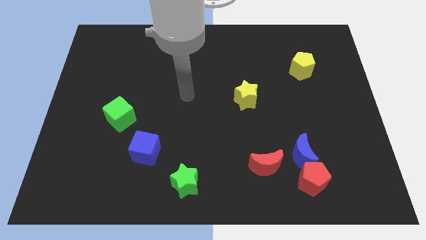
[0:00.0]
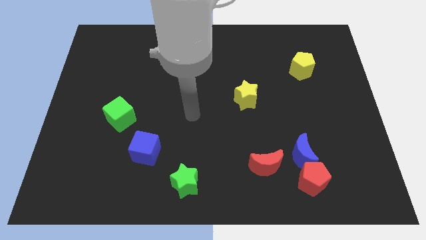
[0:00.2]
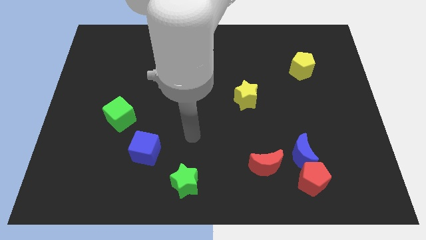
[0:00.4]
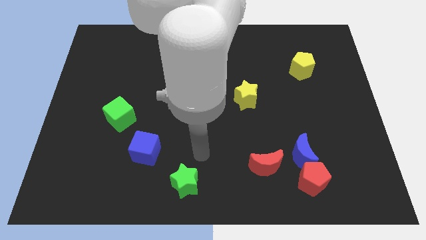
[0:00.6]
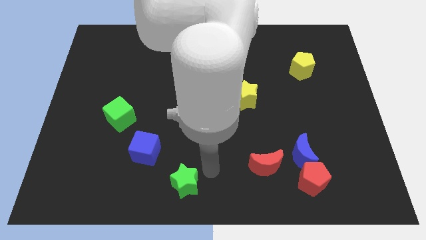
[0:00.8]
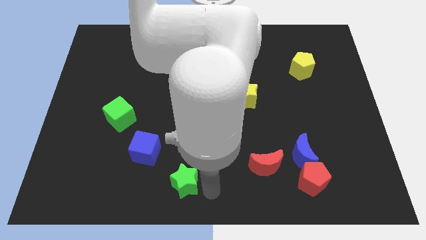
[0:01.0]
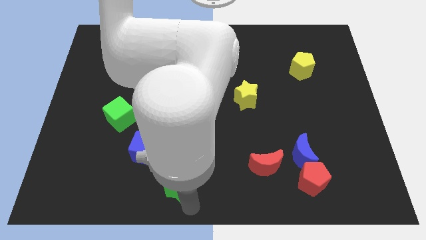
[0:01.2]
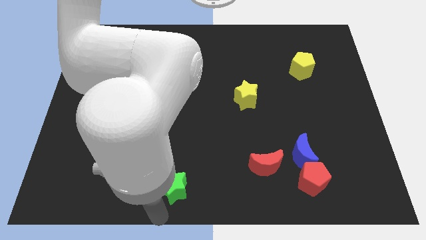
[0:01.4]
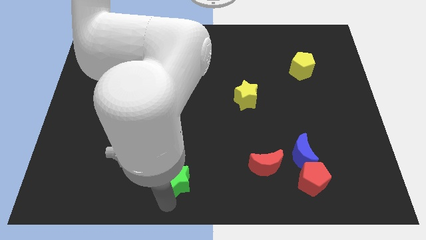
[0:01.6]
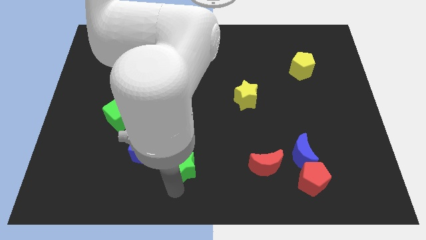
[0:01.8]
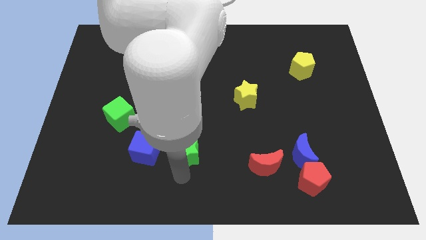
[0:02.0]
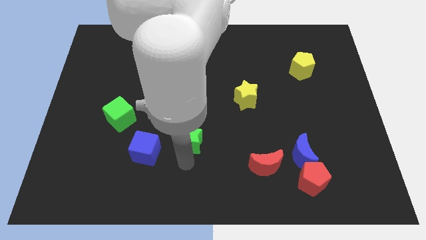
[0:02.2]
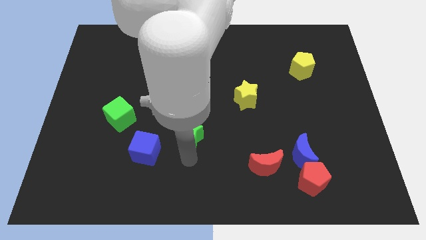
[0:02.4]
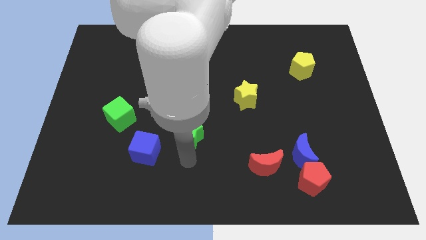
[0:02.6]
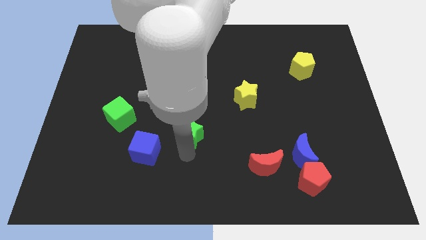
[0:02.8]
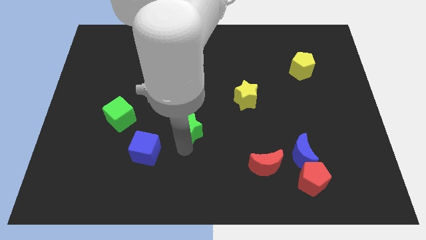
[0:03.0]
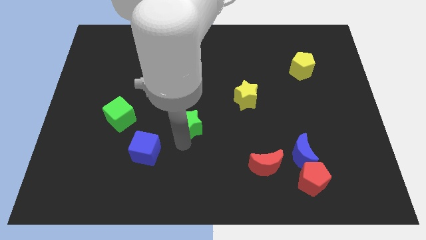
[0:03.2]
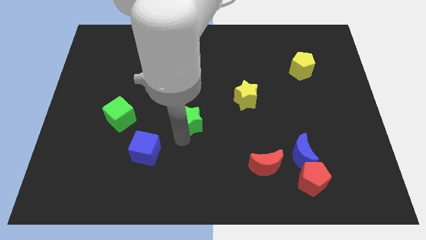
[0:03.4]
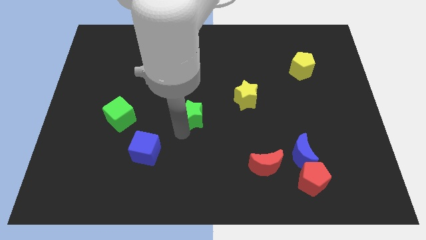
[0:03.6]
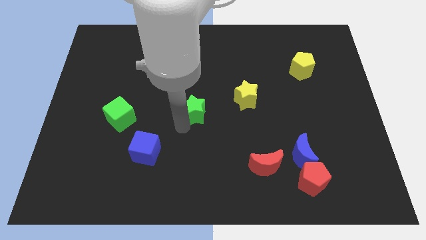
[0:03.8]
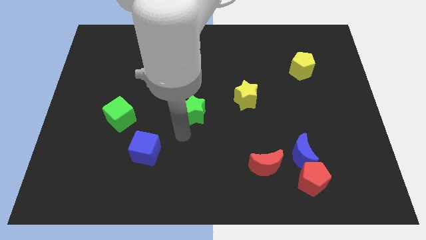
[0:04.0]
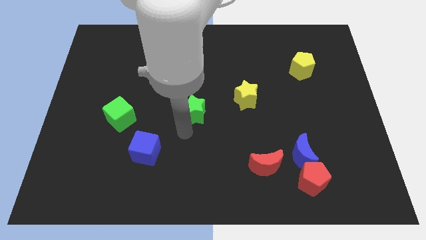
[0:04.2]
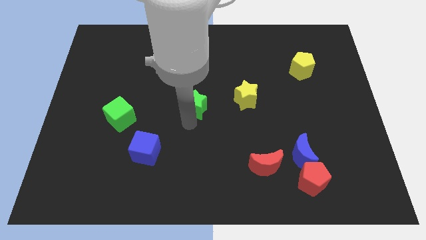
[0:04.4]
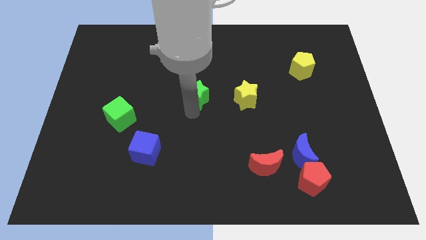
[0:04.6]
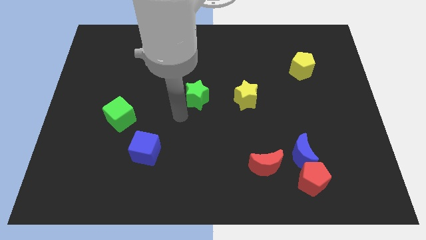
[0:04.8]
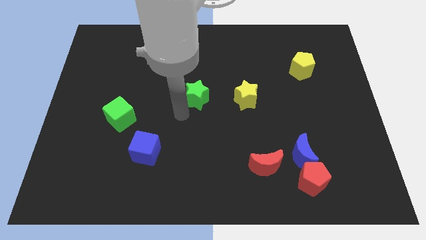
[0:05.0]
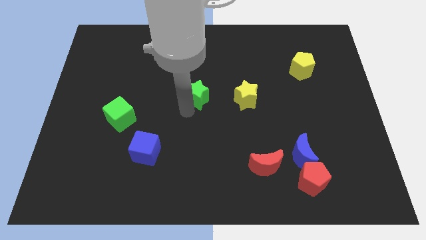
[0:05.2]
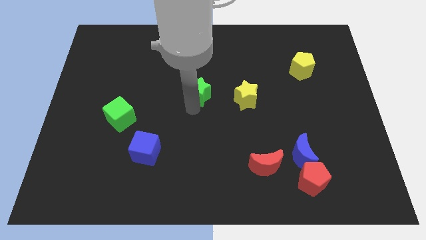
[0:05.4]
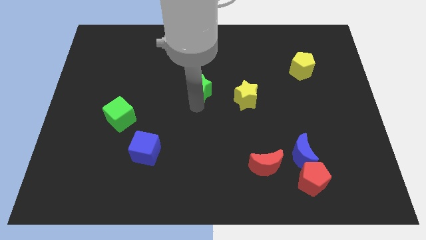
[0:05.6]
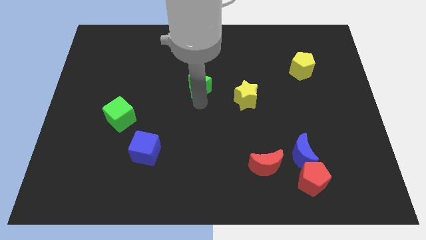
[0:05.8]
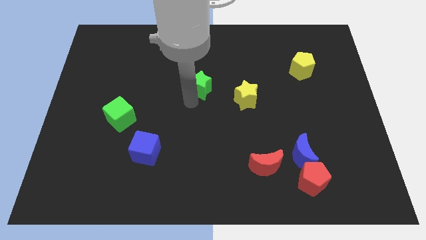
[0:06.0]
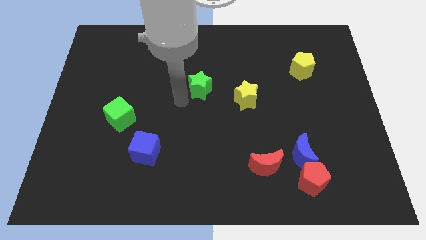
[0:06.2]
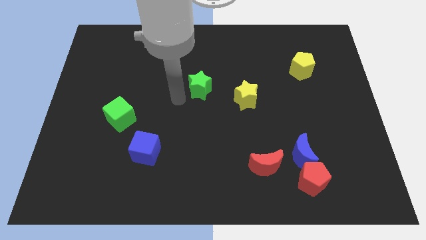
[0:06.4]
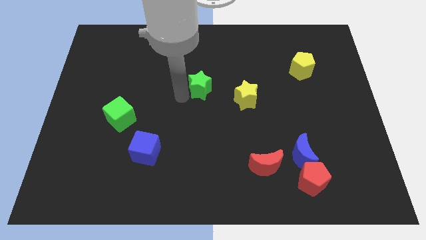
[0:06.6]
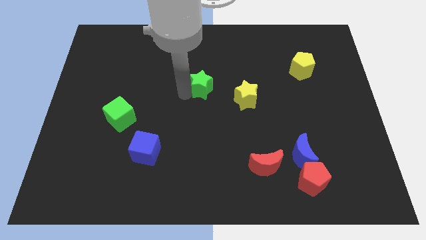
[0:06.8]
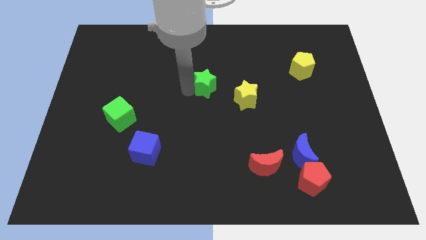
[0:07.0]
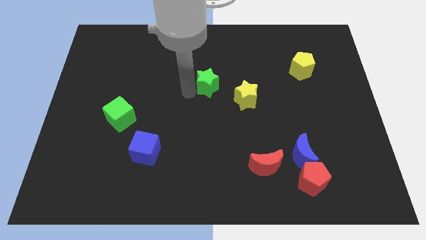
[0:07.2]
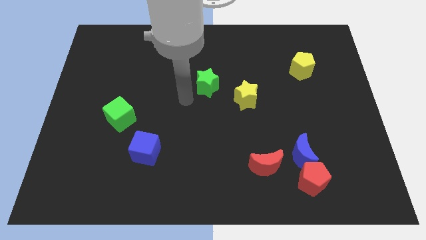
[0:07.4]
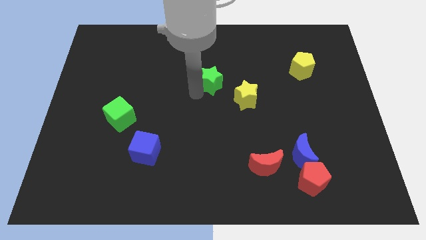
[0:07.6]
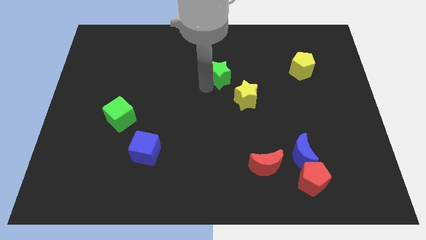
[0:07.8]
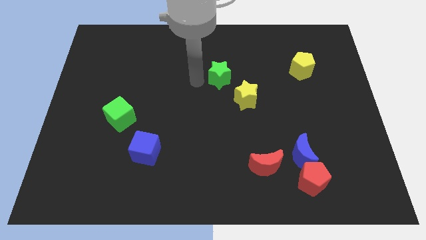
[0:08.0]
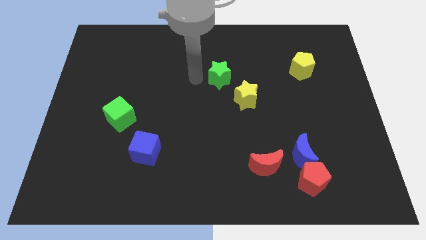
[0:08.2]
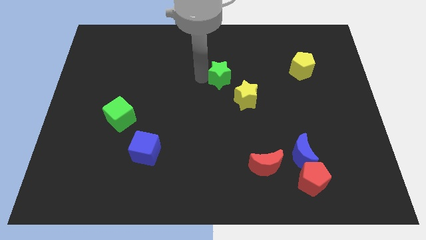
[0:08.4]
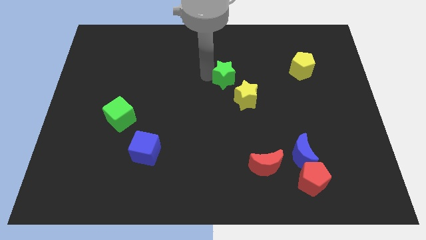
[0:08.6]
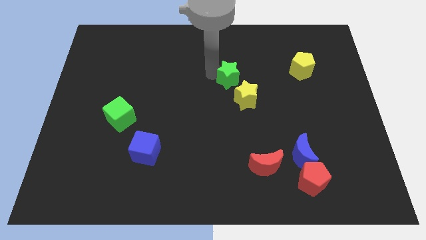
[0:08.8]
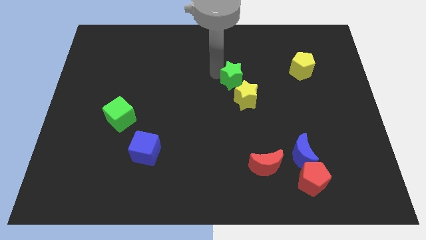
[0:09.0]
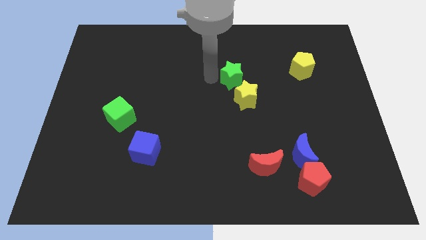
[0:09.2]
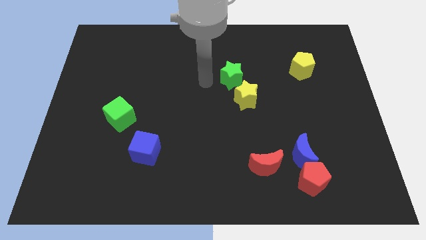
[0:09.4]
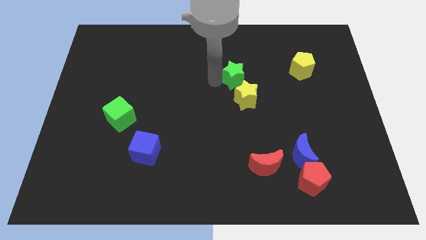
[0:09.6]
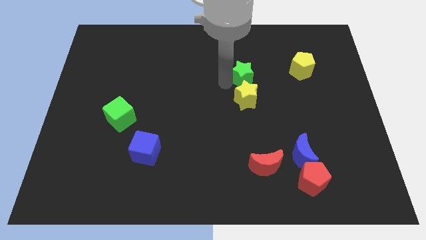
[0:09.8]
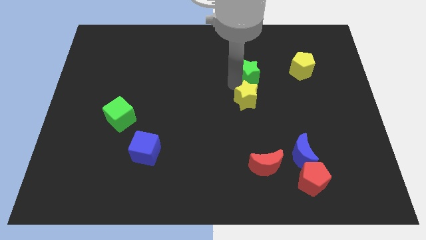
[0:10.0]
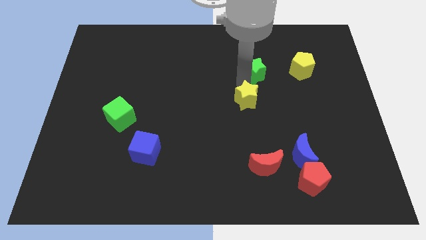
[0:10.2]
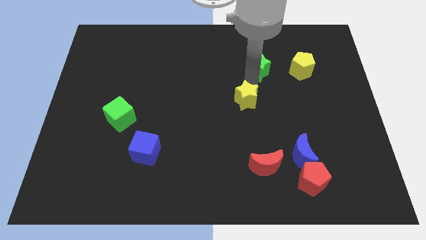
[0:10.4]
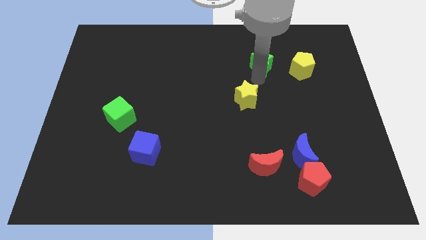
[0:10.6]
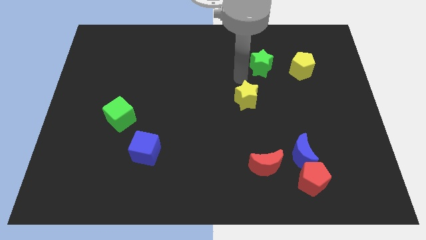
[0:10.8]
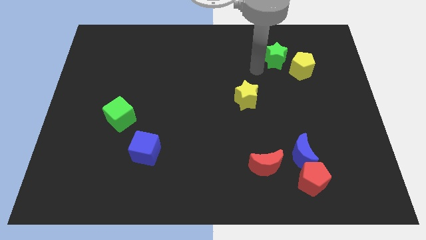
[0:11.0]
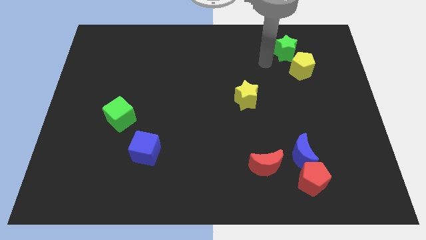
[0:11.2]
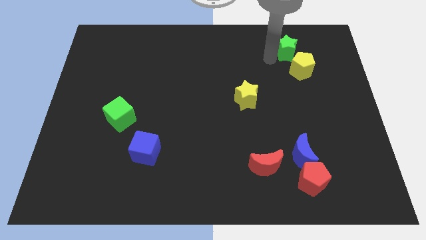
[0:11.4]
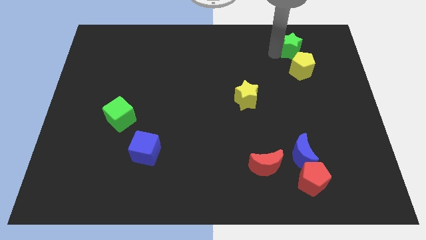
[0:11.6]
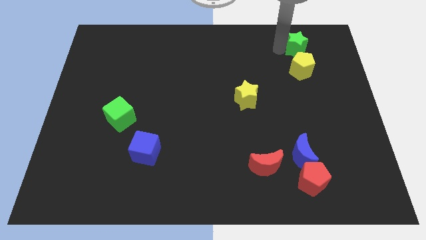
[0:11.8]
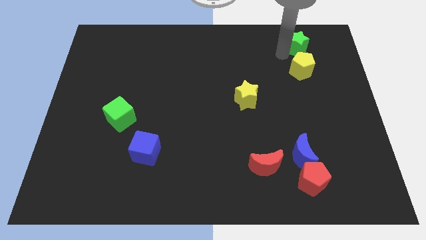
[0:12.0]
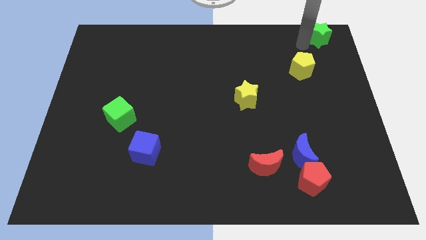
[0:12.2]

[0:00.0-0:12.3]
slide the green star to the top right corner

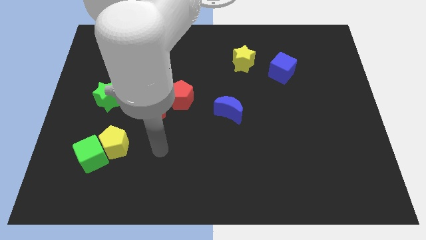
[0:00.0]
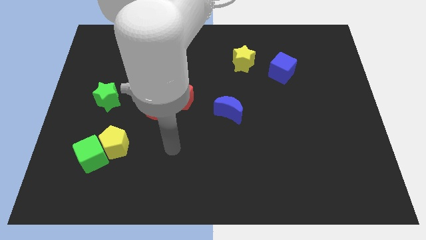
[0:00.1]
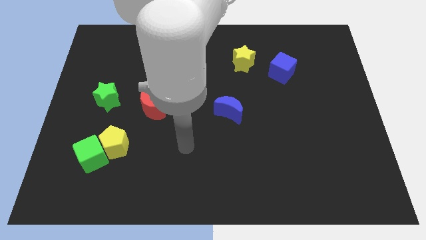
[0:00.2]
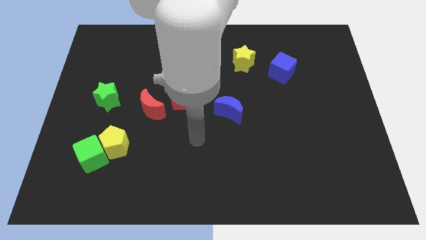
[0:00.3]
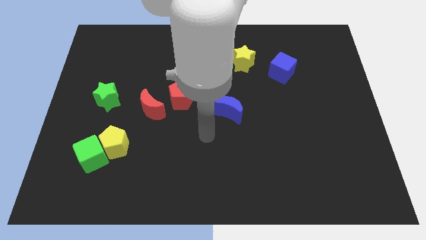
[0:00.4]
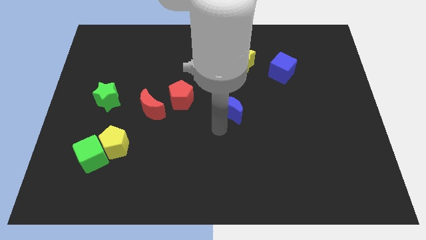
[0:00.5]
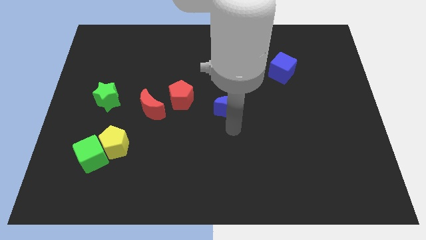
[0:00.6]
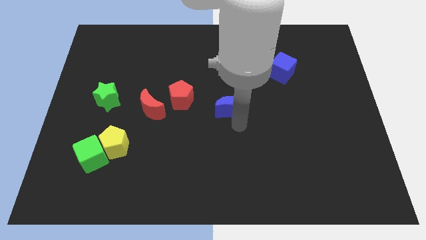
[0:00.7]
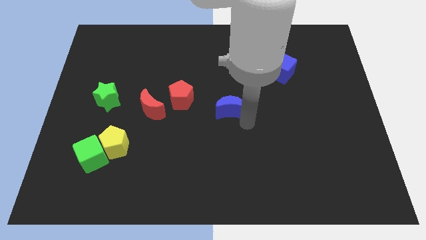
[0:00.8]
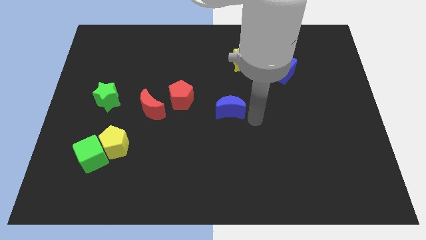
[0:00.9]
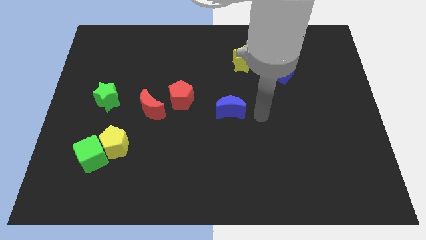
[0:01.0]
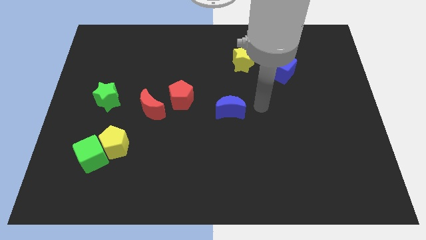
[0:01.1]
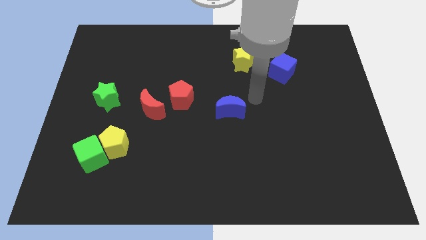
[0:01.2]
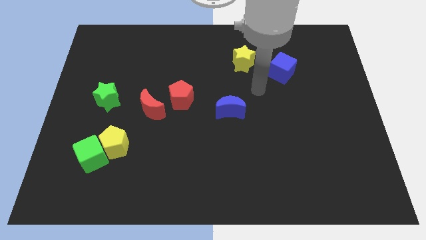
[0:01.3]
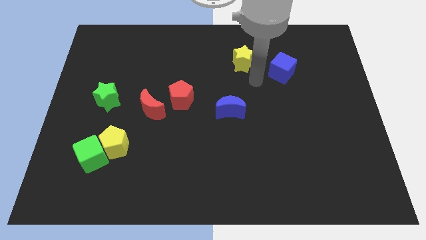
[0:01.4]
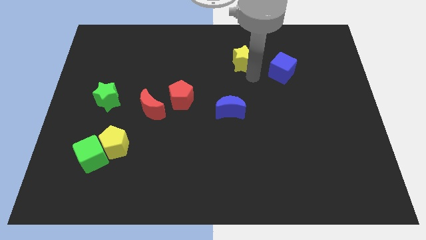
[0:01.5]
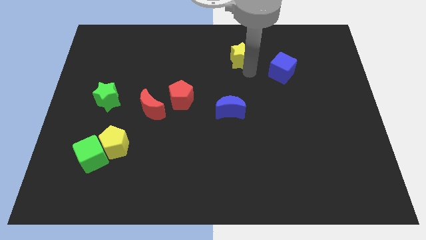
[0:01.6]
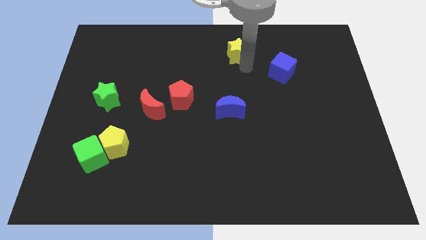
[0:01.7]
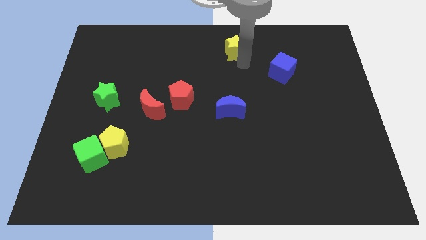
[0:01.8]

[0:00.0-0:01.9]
move the yellow star to the towards your base
